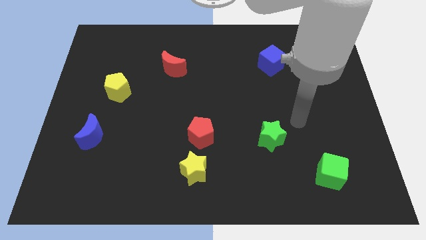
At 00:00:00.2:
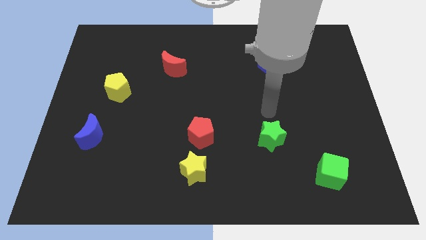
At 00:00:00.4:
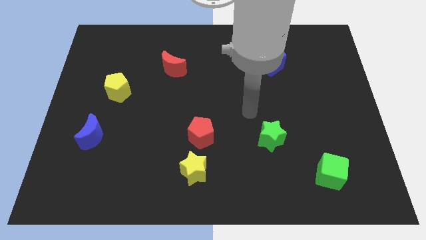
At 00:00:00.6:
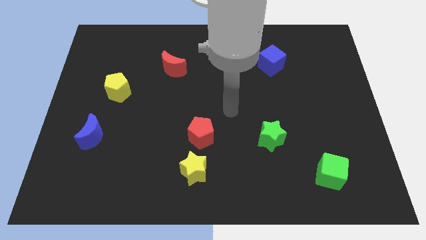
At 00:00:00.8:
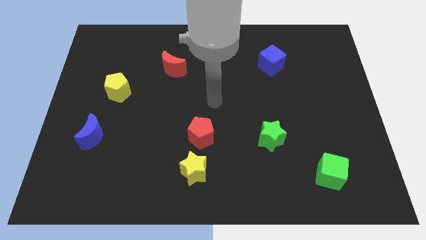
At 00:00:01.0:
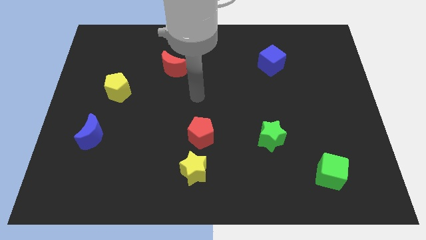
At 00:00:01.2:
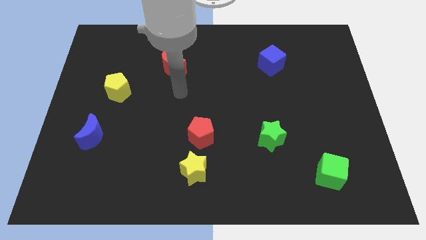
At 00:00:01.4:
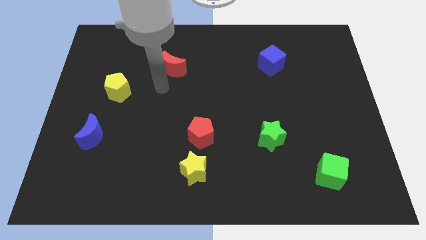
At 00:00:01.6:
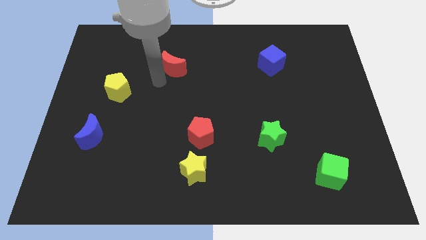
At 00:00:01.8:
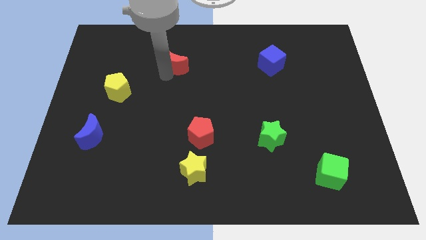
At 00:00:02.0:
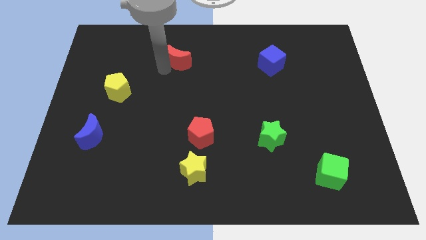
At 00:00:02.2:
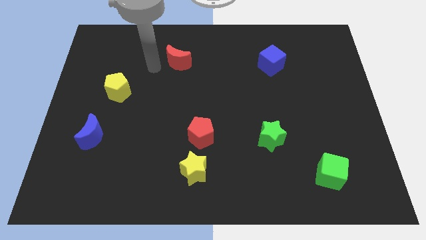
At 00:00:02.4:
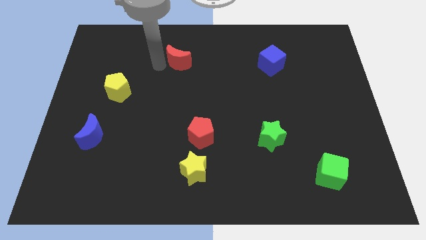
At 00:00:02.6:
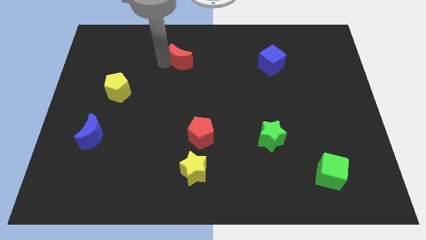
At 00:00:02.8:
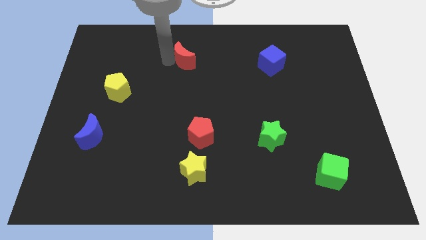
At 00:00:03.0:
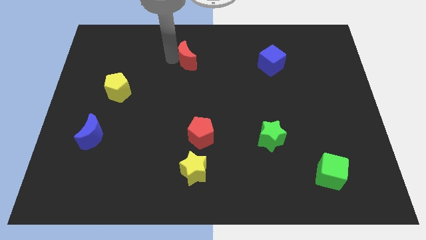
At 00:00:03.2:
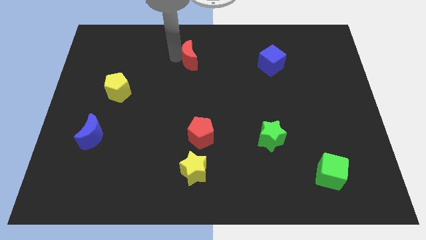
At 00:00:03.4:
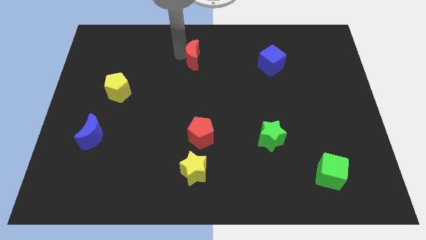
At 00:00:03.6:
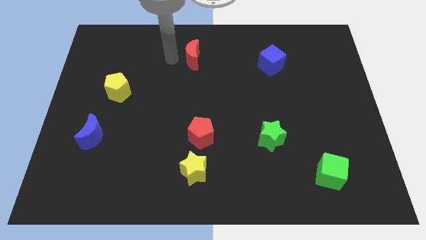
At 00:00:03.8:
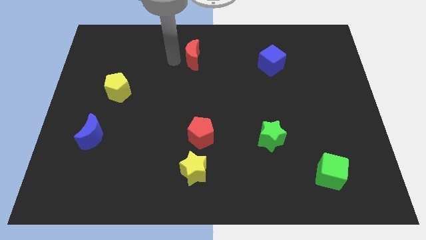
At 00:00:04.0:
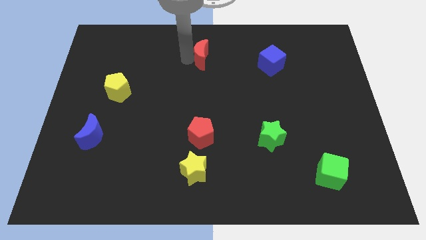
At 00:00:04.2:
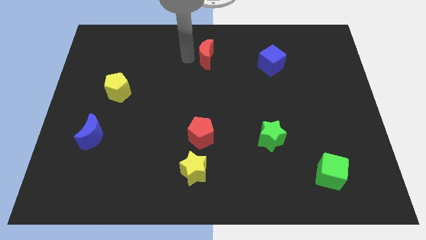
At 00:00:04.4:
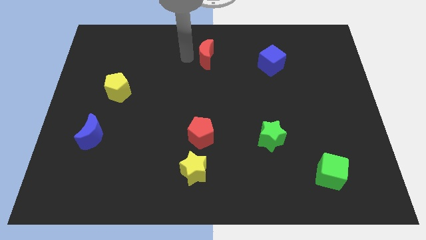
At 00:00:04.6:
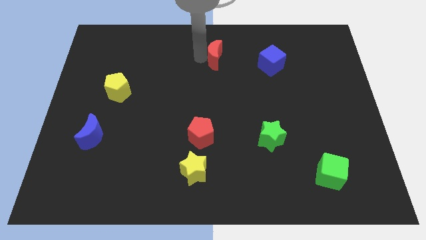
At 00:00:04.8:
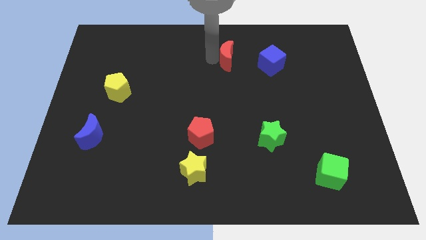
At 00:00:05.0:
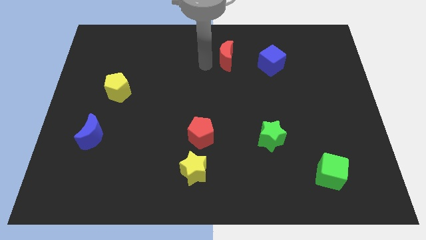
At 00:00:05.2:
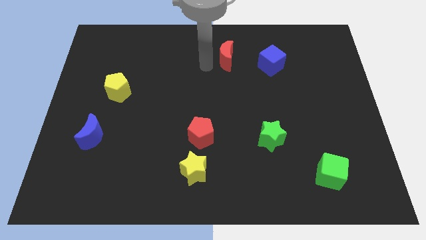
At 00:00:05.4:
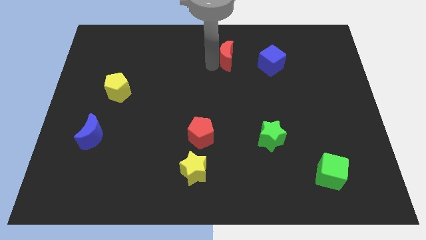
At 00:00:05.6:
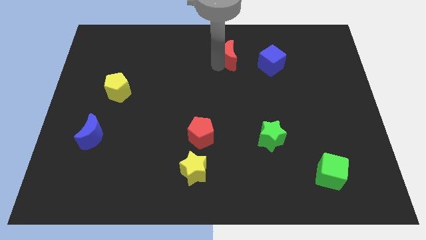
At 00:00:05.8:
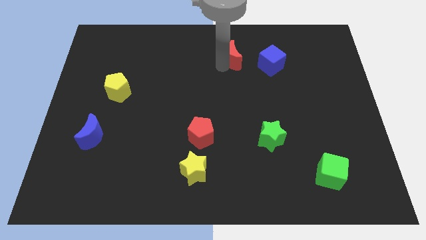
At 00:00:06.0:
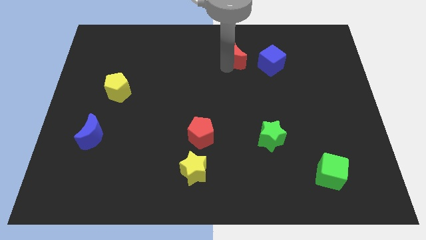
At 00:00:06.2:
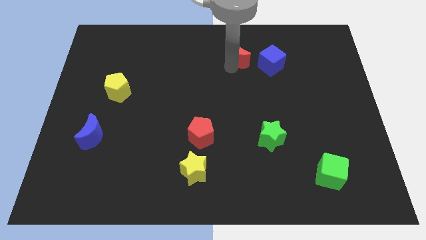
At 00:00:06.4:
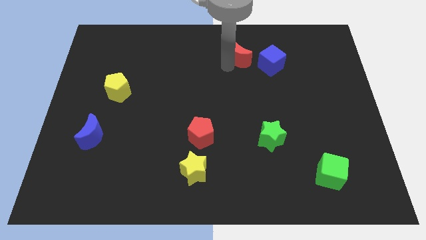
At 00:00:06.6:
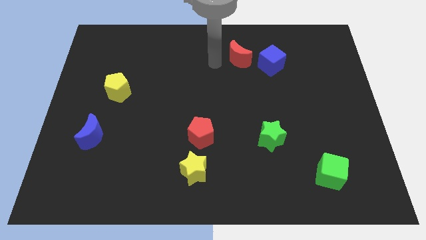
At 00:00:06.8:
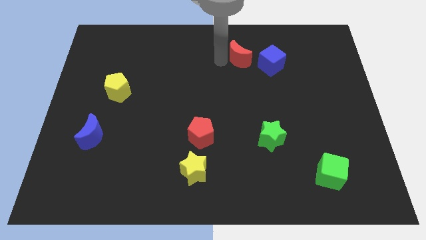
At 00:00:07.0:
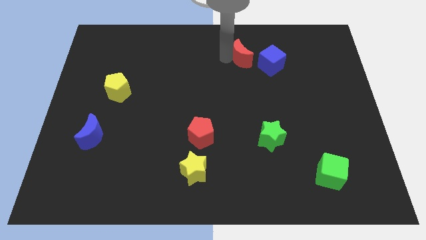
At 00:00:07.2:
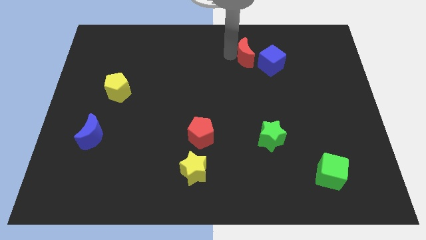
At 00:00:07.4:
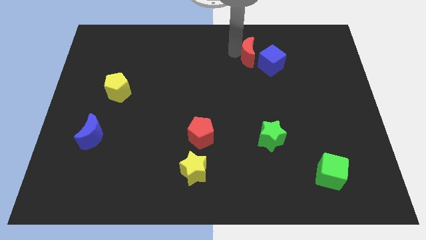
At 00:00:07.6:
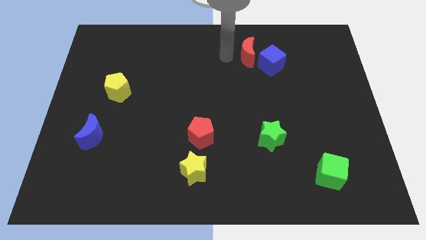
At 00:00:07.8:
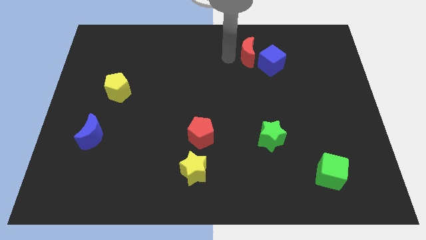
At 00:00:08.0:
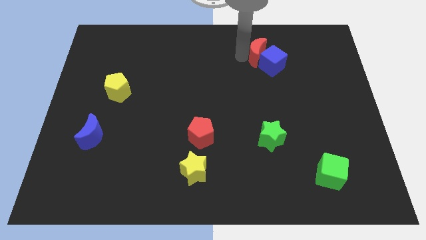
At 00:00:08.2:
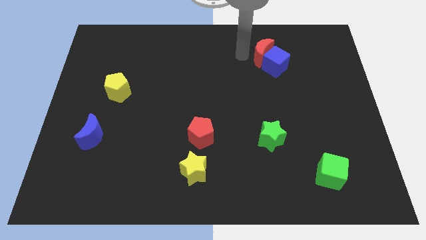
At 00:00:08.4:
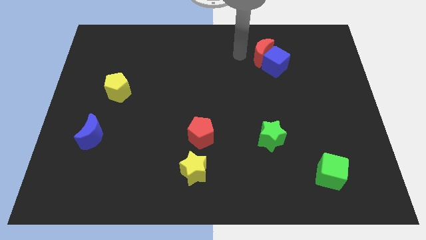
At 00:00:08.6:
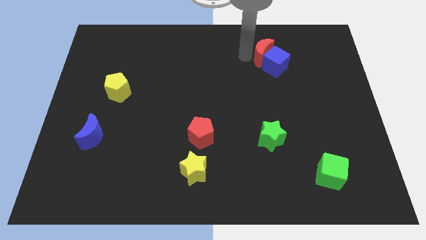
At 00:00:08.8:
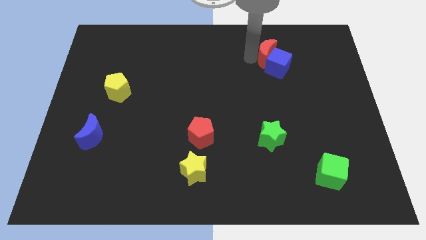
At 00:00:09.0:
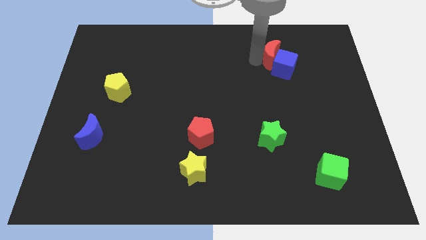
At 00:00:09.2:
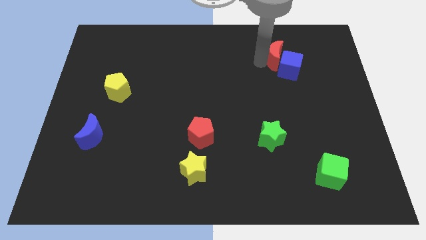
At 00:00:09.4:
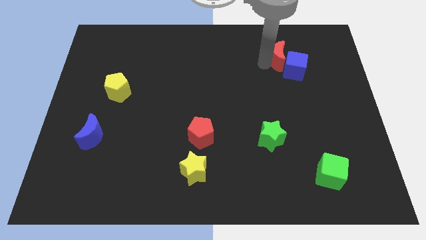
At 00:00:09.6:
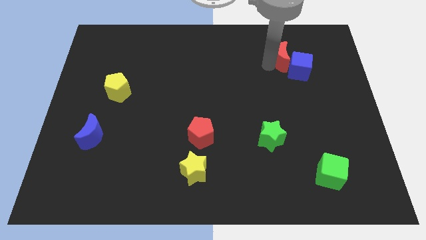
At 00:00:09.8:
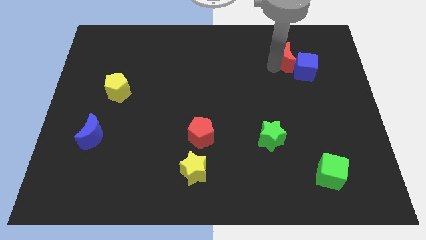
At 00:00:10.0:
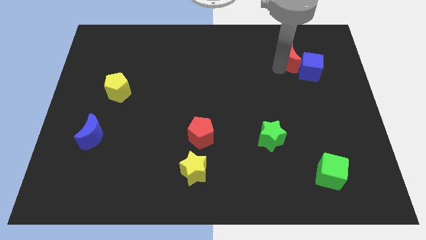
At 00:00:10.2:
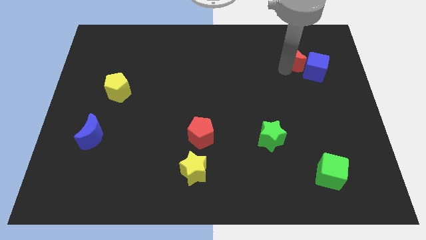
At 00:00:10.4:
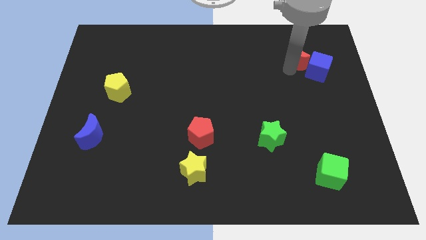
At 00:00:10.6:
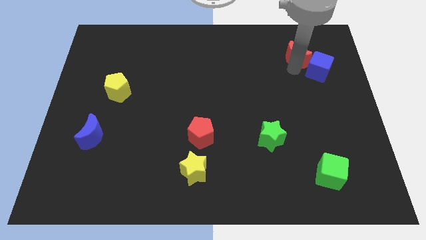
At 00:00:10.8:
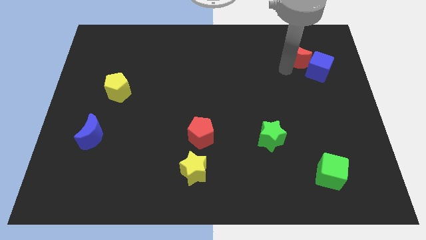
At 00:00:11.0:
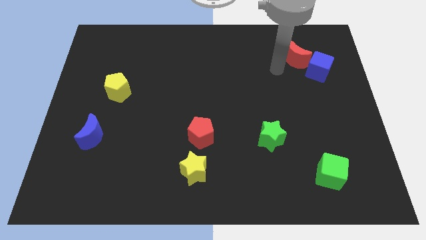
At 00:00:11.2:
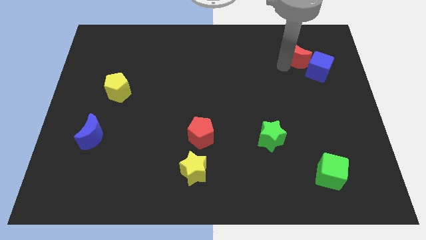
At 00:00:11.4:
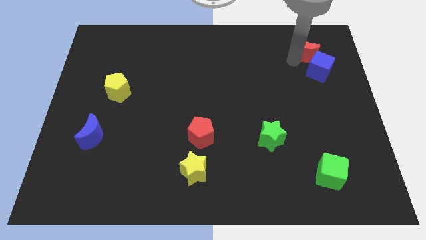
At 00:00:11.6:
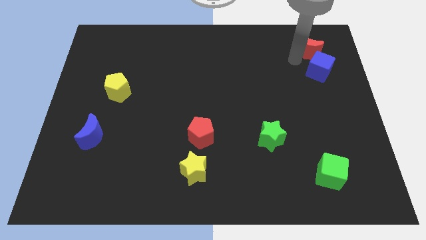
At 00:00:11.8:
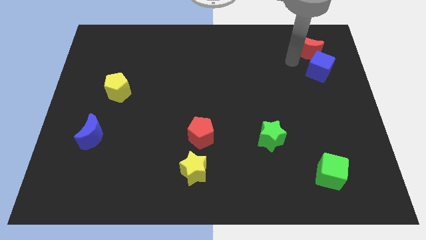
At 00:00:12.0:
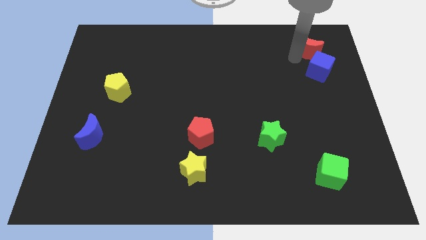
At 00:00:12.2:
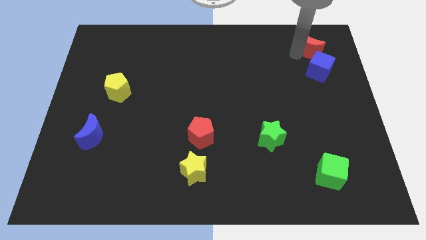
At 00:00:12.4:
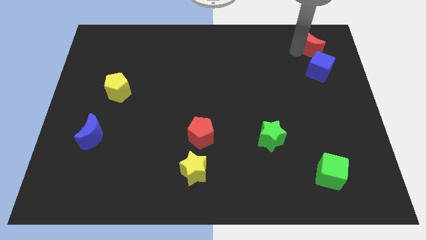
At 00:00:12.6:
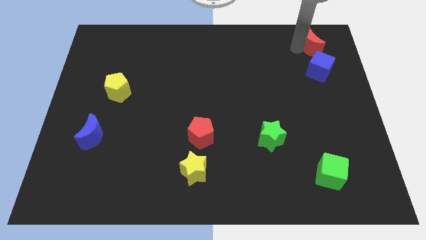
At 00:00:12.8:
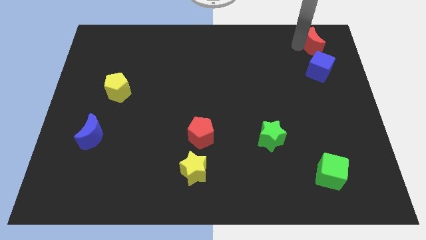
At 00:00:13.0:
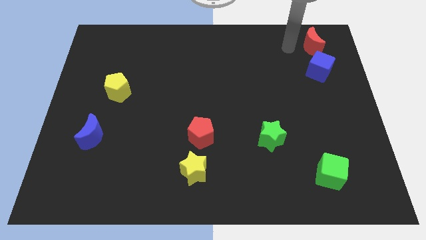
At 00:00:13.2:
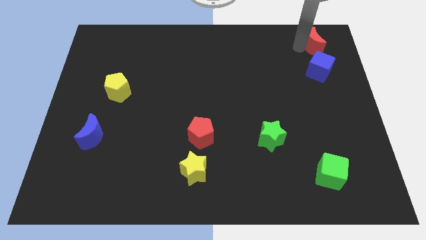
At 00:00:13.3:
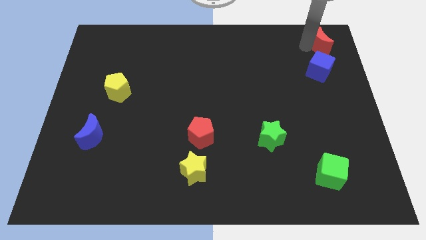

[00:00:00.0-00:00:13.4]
move the red moon to the upper right corner
